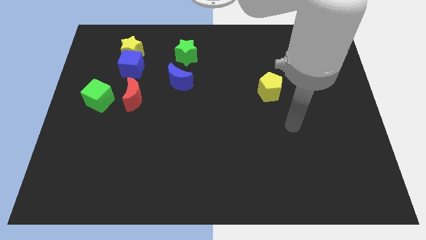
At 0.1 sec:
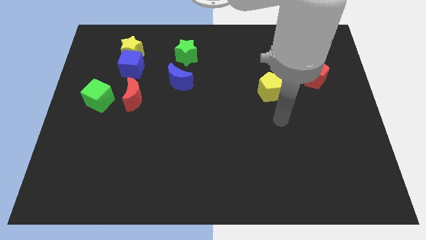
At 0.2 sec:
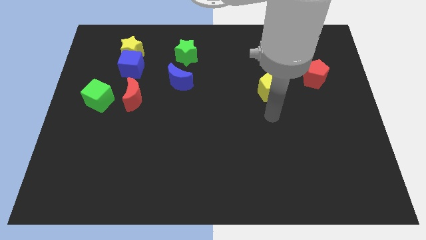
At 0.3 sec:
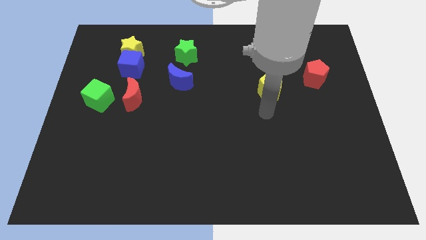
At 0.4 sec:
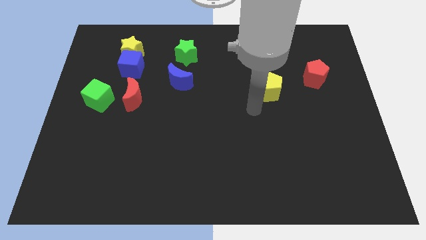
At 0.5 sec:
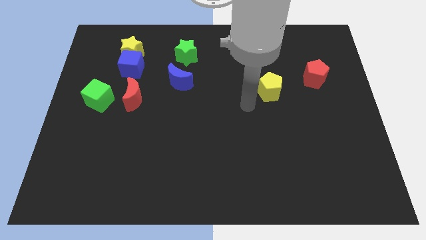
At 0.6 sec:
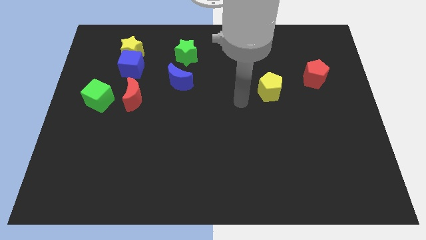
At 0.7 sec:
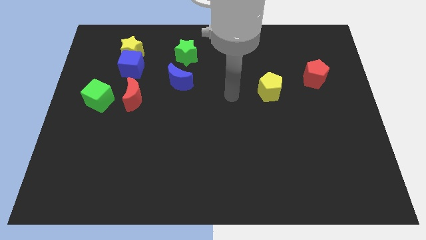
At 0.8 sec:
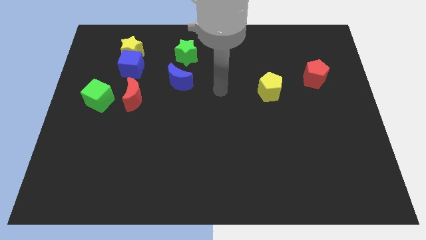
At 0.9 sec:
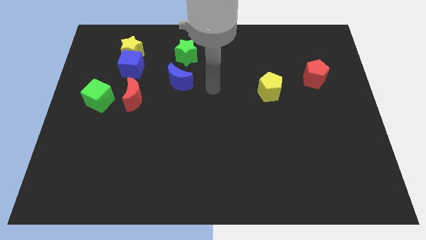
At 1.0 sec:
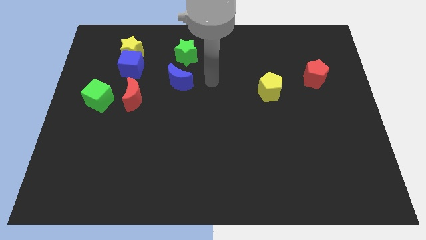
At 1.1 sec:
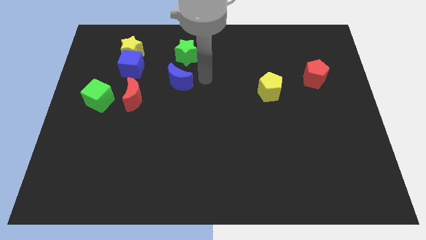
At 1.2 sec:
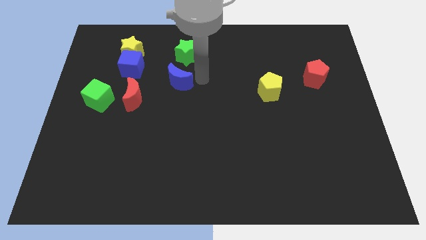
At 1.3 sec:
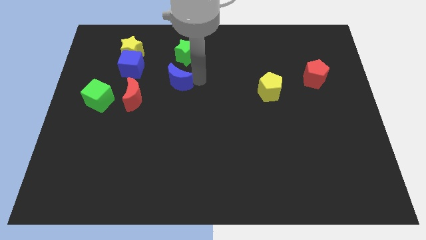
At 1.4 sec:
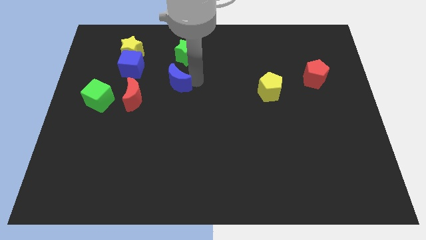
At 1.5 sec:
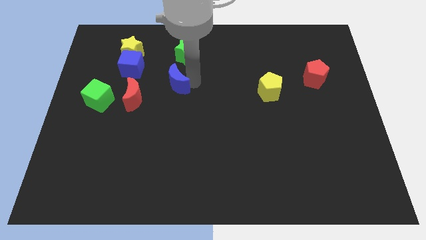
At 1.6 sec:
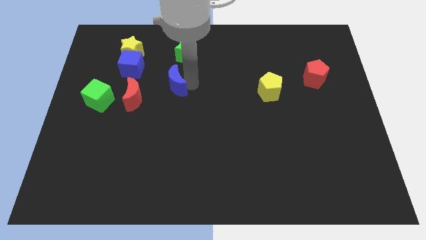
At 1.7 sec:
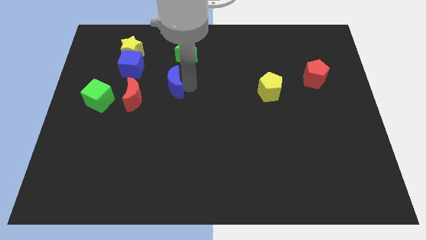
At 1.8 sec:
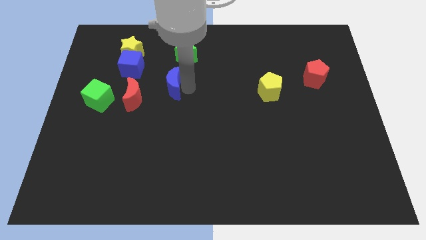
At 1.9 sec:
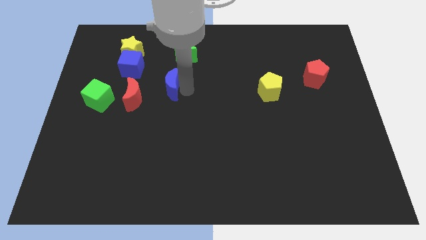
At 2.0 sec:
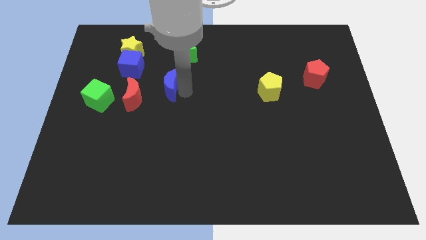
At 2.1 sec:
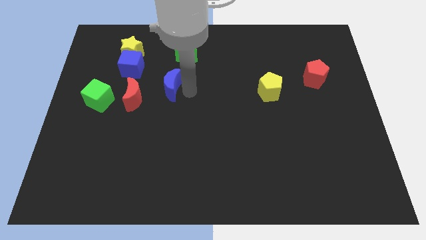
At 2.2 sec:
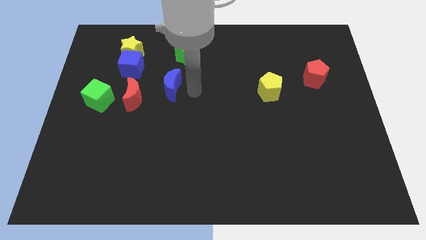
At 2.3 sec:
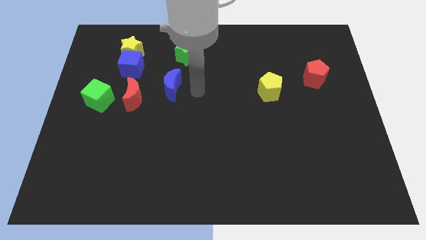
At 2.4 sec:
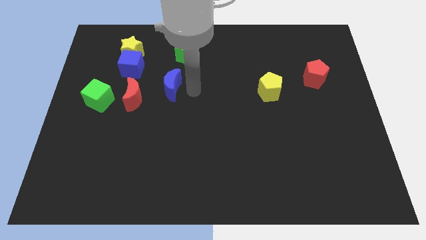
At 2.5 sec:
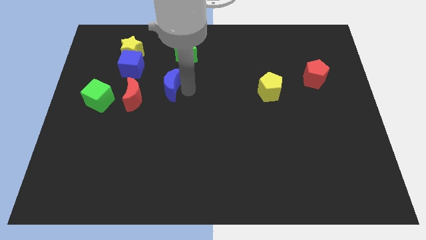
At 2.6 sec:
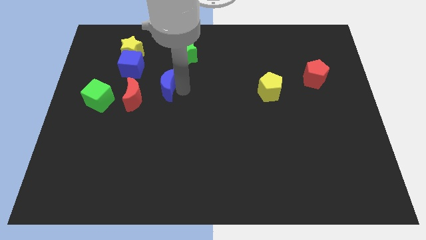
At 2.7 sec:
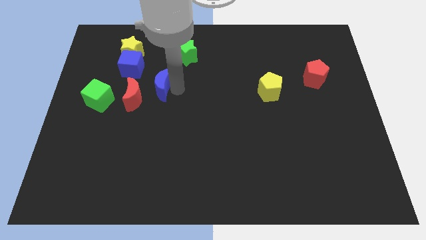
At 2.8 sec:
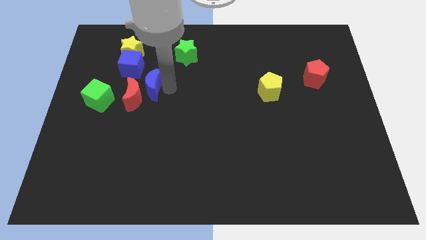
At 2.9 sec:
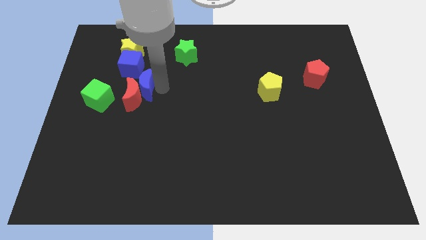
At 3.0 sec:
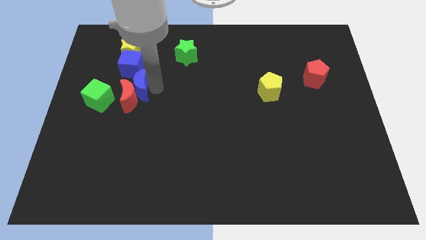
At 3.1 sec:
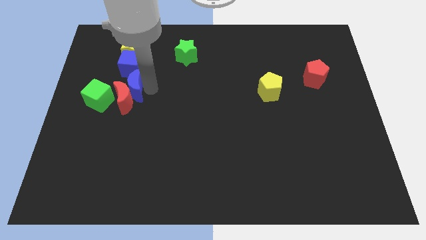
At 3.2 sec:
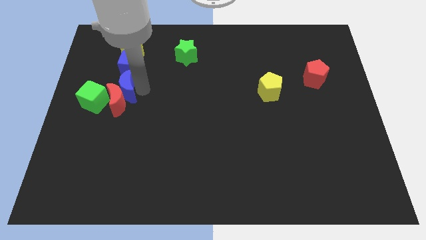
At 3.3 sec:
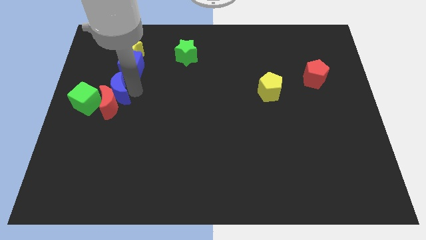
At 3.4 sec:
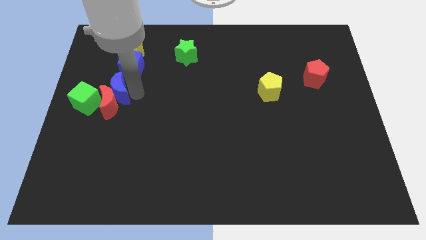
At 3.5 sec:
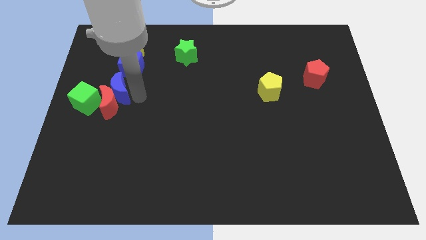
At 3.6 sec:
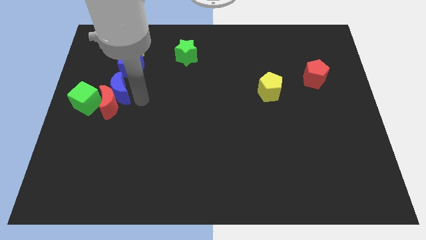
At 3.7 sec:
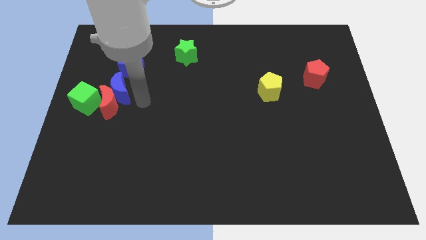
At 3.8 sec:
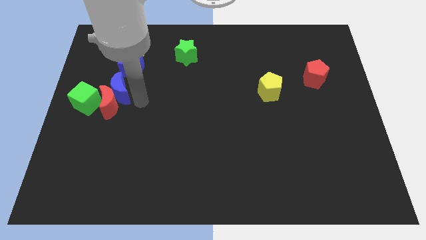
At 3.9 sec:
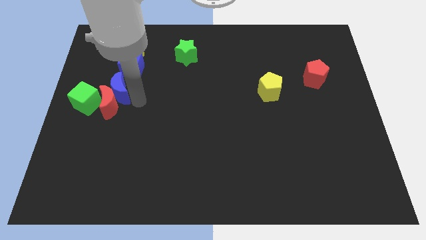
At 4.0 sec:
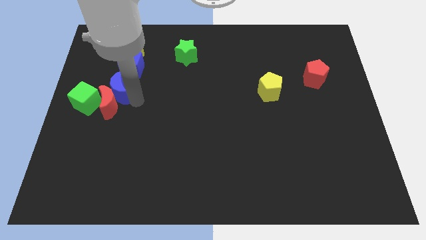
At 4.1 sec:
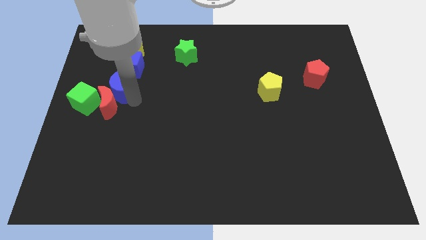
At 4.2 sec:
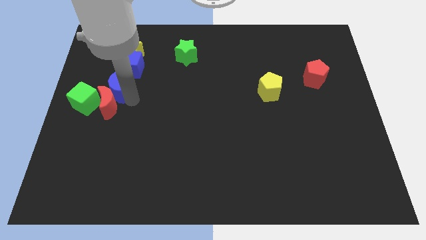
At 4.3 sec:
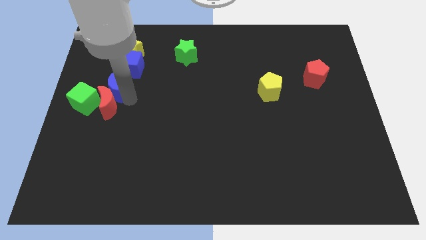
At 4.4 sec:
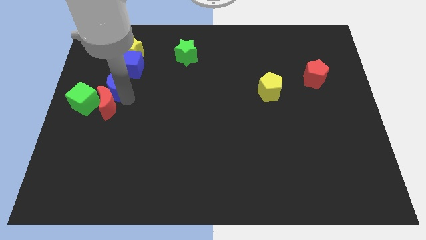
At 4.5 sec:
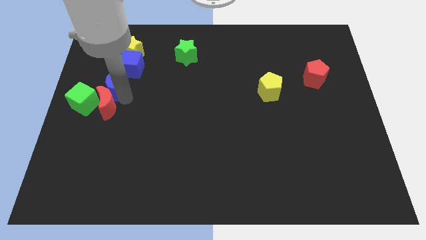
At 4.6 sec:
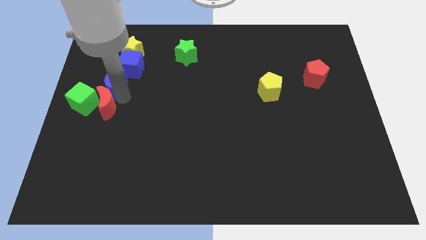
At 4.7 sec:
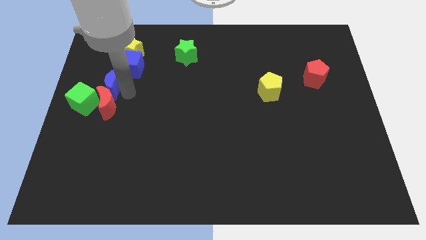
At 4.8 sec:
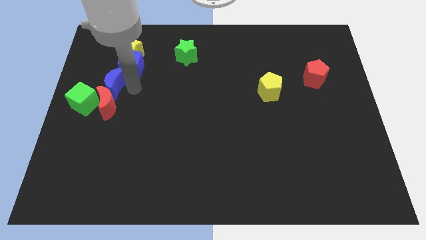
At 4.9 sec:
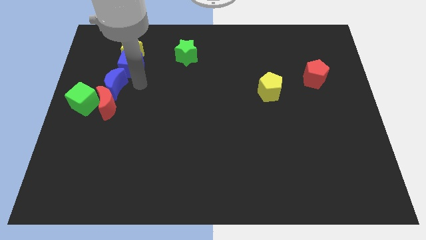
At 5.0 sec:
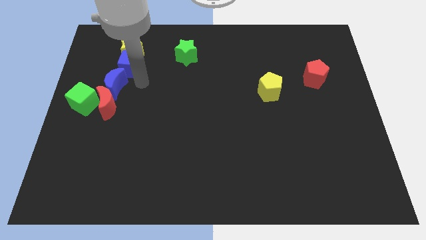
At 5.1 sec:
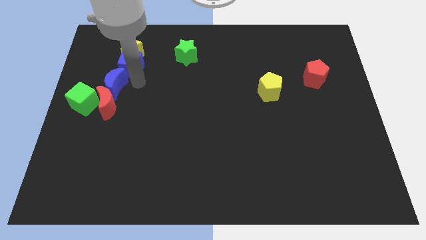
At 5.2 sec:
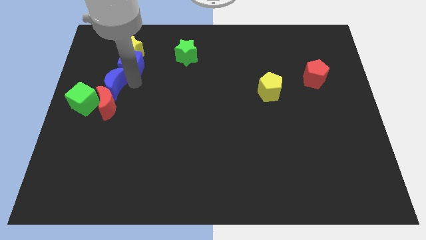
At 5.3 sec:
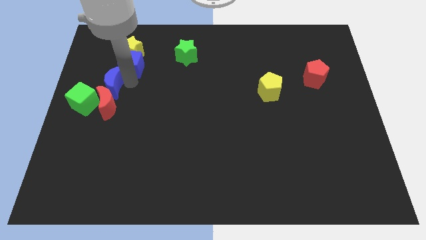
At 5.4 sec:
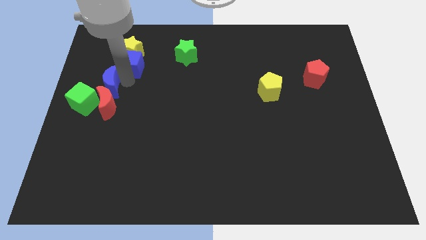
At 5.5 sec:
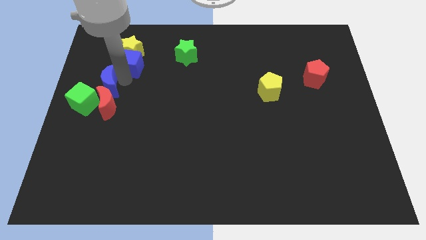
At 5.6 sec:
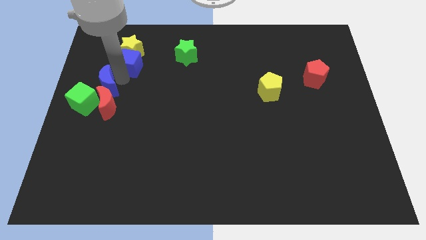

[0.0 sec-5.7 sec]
slide the blue moon to the left side
